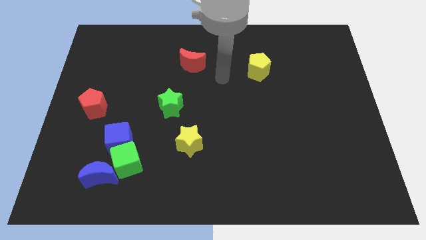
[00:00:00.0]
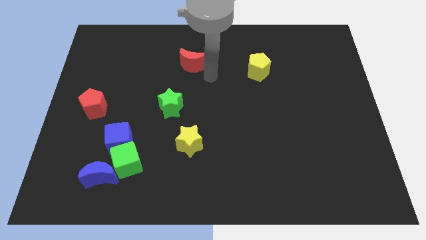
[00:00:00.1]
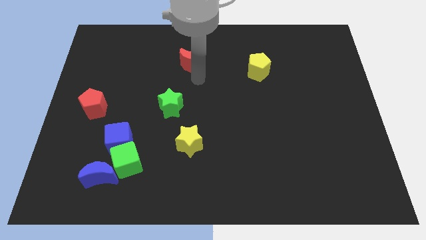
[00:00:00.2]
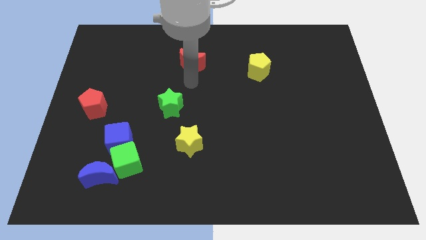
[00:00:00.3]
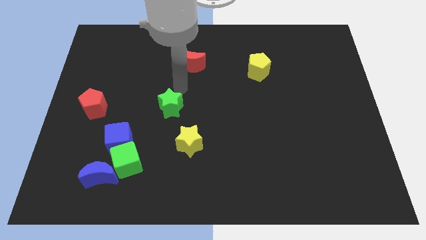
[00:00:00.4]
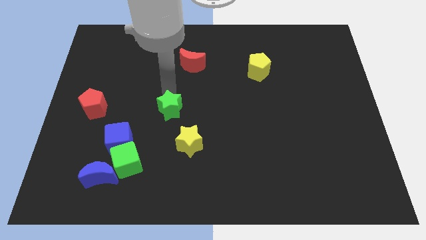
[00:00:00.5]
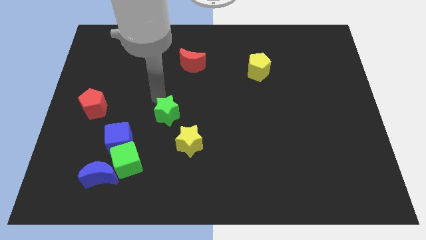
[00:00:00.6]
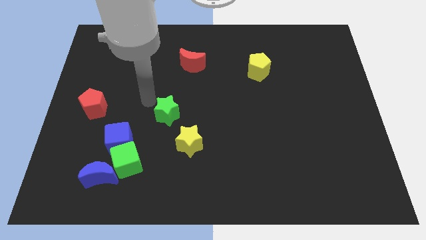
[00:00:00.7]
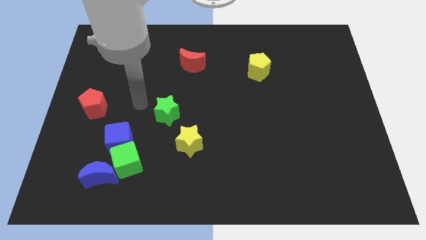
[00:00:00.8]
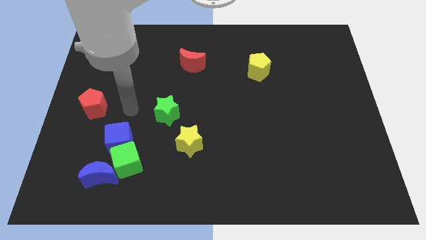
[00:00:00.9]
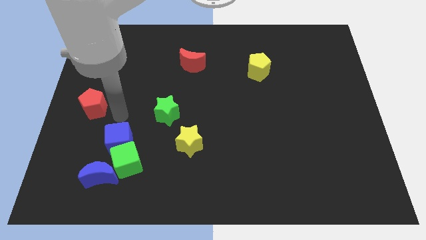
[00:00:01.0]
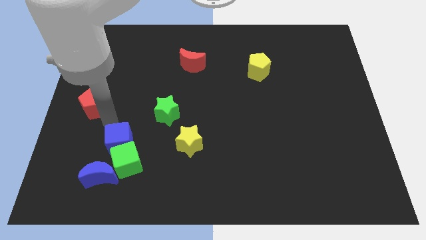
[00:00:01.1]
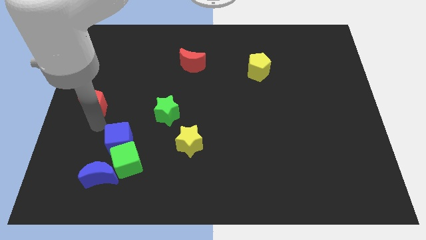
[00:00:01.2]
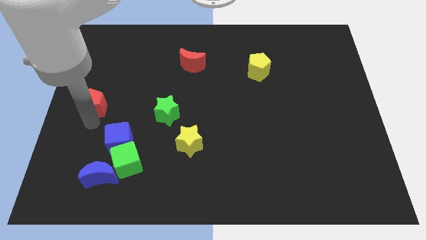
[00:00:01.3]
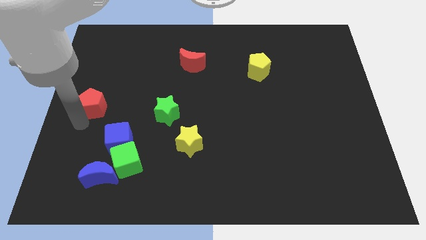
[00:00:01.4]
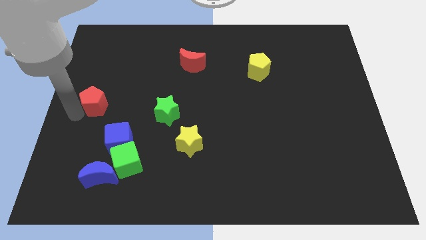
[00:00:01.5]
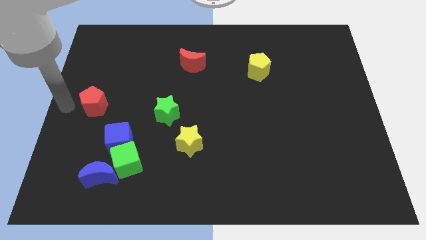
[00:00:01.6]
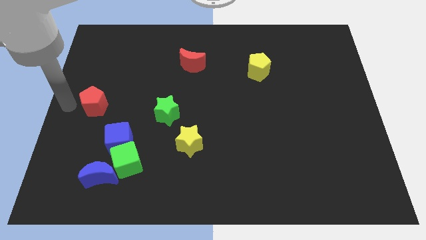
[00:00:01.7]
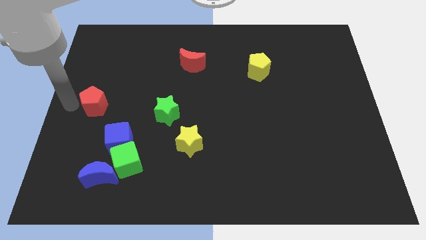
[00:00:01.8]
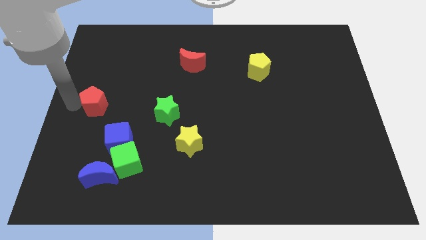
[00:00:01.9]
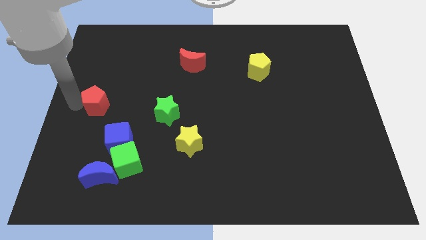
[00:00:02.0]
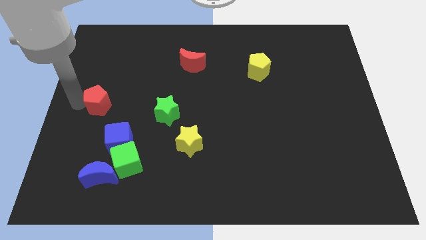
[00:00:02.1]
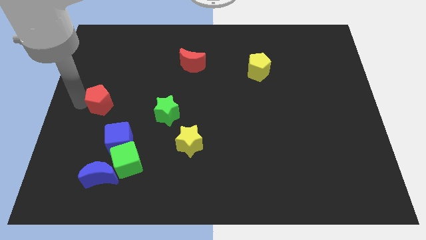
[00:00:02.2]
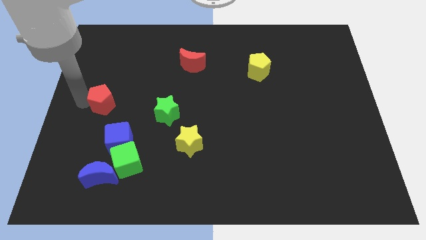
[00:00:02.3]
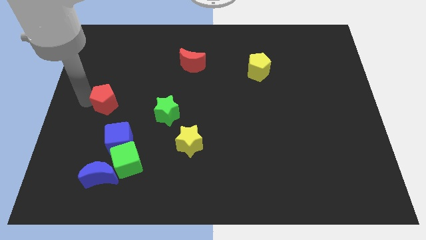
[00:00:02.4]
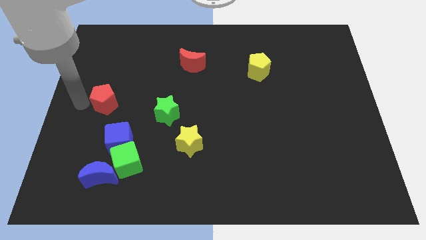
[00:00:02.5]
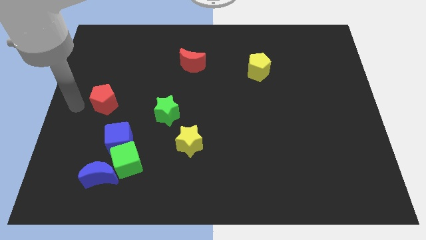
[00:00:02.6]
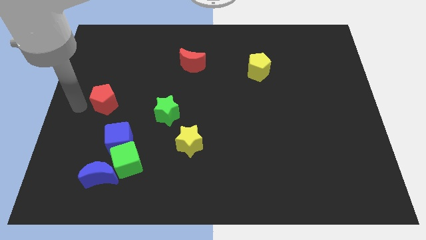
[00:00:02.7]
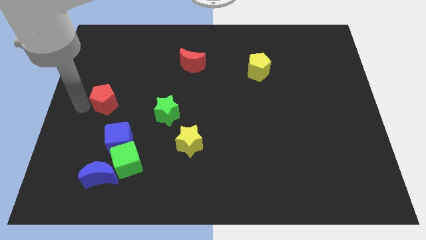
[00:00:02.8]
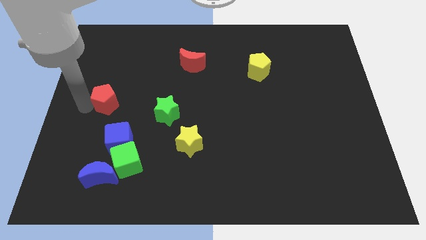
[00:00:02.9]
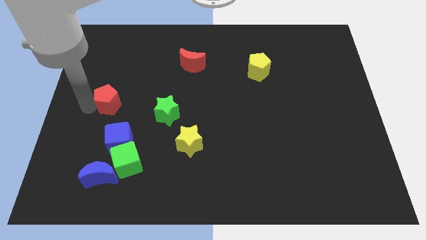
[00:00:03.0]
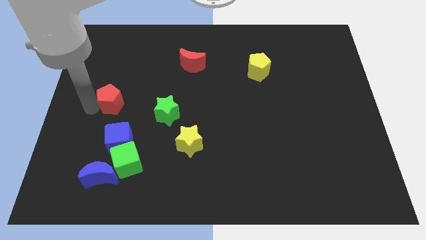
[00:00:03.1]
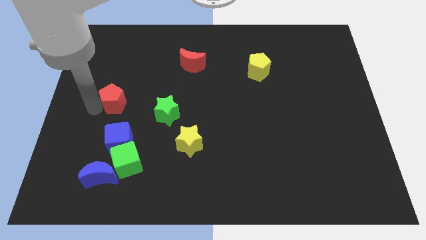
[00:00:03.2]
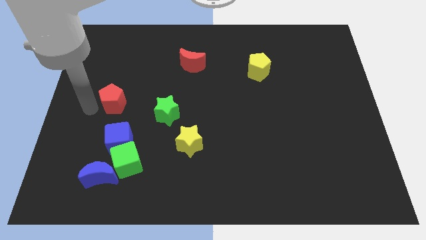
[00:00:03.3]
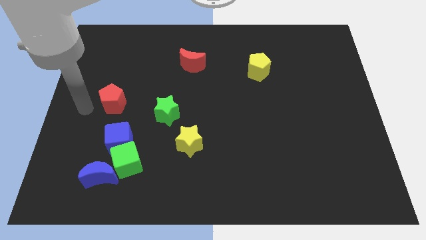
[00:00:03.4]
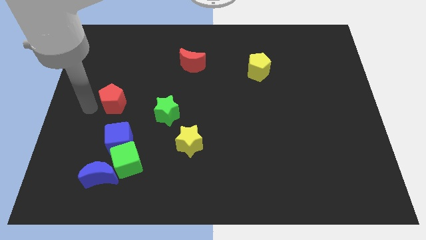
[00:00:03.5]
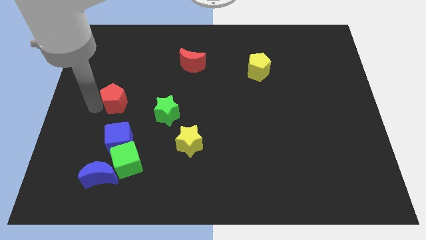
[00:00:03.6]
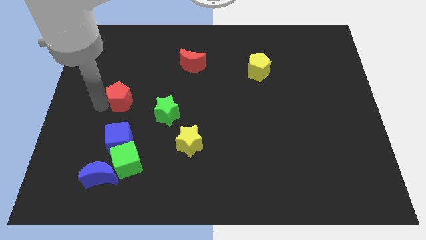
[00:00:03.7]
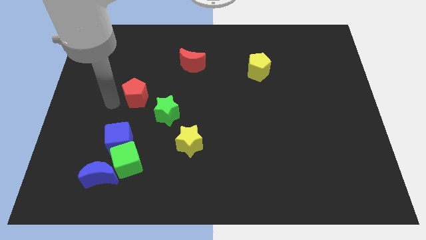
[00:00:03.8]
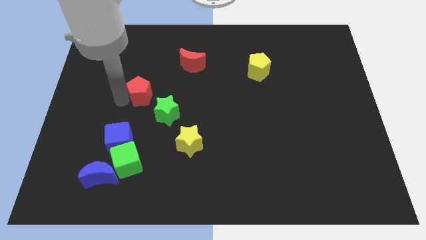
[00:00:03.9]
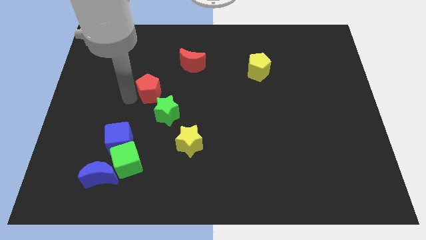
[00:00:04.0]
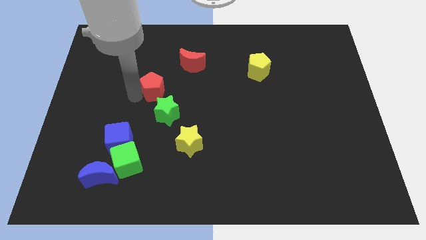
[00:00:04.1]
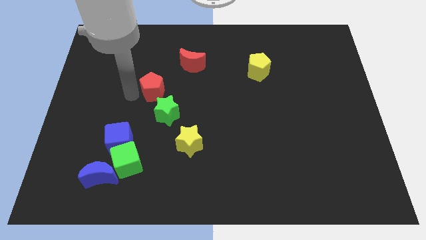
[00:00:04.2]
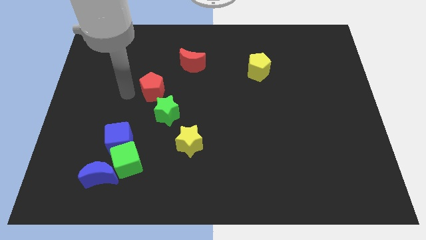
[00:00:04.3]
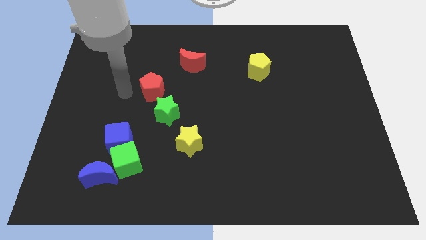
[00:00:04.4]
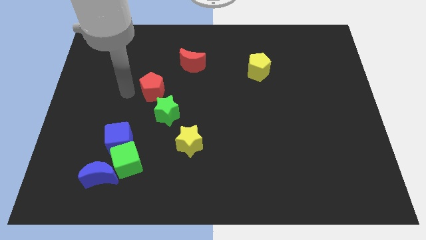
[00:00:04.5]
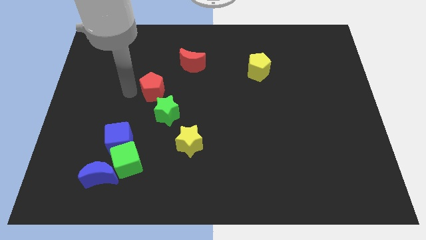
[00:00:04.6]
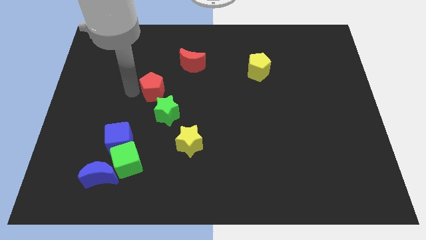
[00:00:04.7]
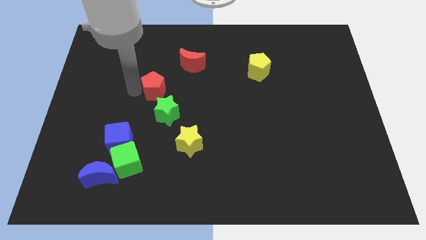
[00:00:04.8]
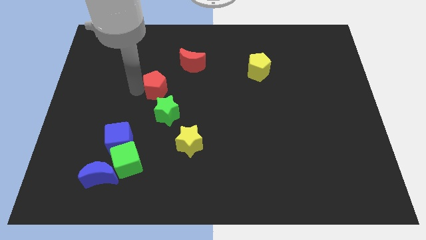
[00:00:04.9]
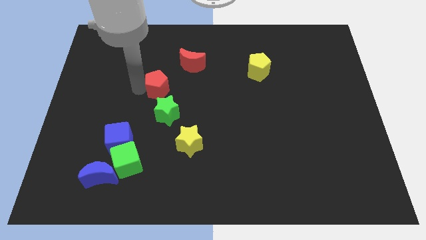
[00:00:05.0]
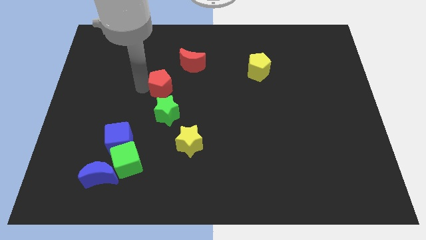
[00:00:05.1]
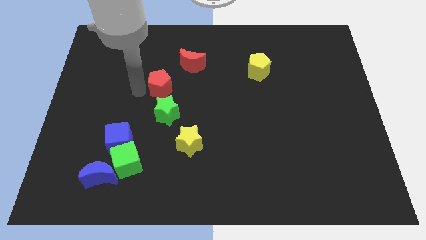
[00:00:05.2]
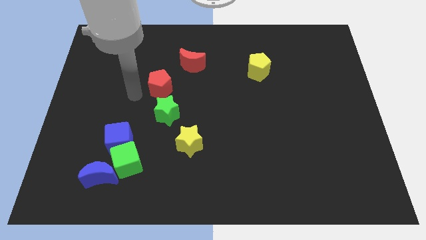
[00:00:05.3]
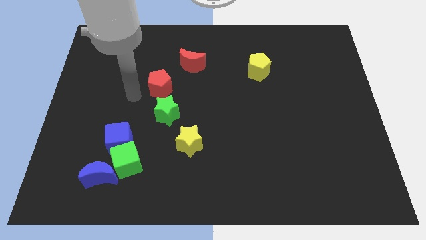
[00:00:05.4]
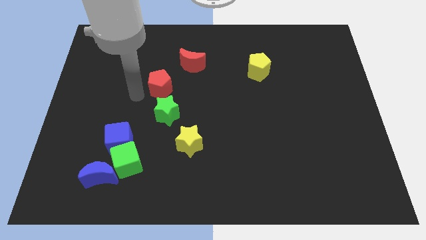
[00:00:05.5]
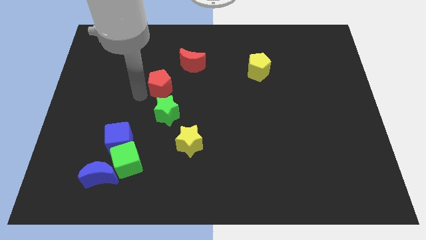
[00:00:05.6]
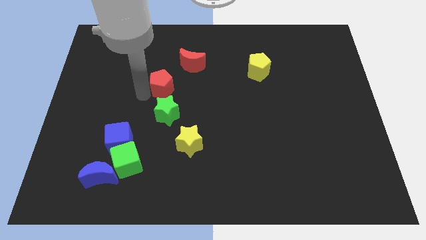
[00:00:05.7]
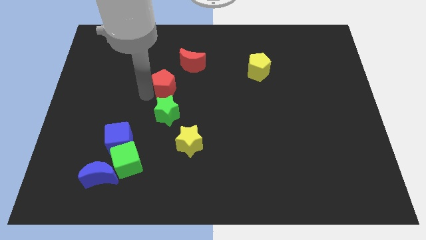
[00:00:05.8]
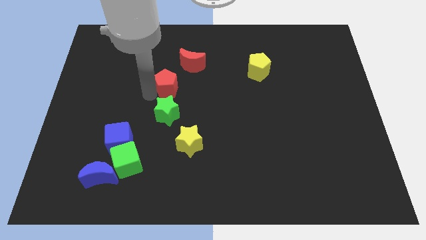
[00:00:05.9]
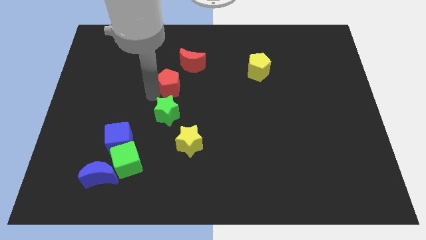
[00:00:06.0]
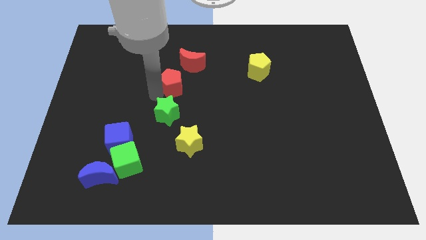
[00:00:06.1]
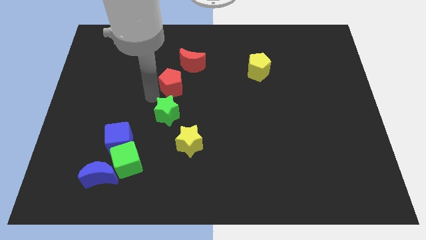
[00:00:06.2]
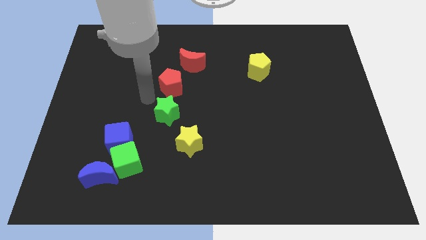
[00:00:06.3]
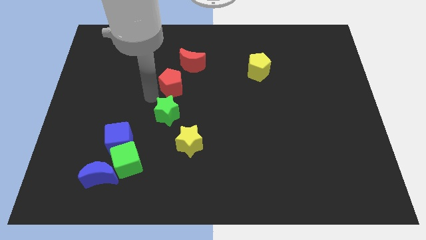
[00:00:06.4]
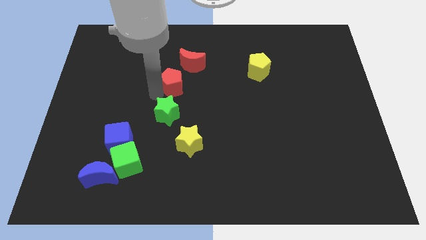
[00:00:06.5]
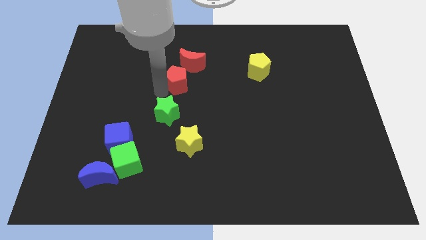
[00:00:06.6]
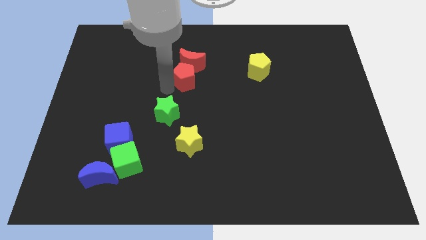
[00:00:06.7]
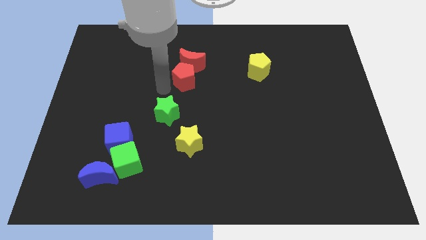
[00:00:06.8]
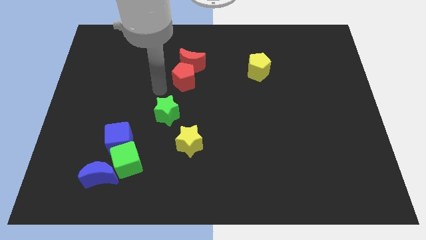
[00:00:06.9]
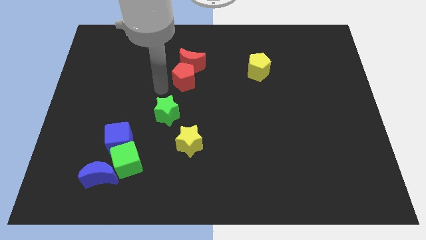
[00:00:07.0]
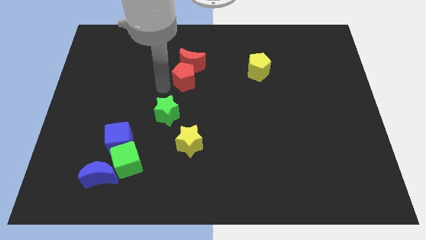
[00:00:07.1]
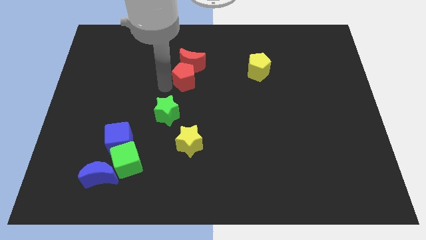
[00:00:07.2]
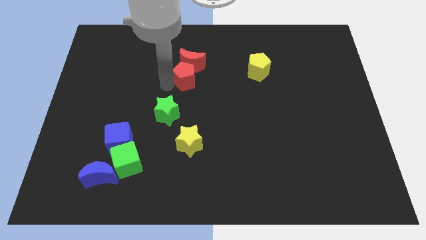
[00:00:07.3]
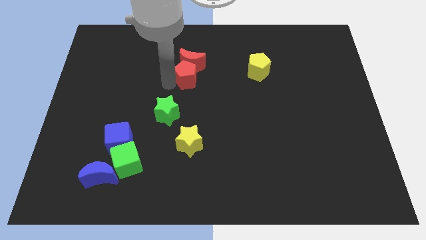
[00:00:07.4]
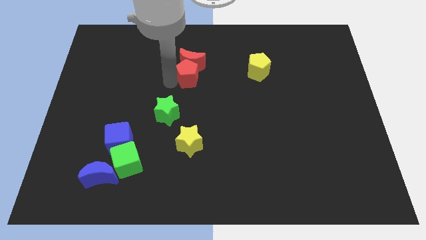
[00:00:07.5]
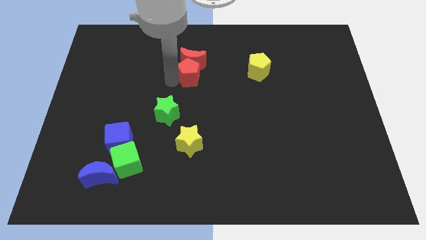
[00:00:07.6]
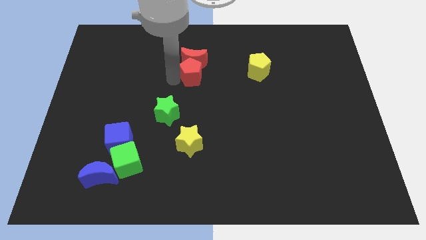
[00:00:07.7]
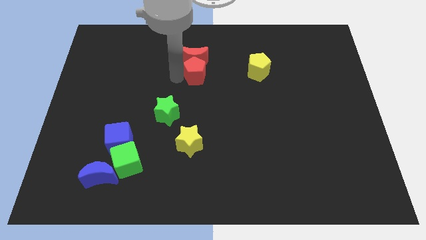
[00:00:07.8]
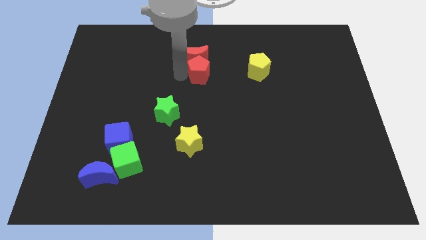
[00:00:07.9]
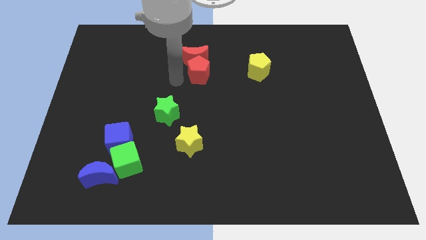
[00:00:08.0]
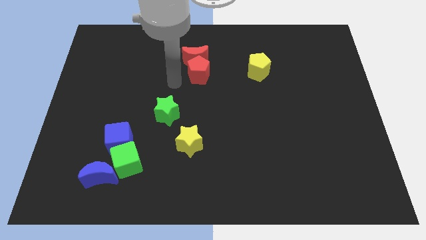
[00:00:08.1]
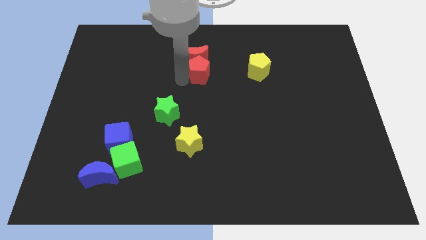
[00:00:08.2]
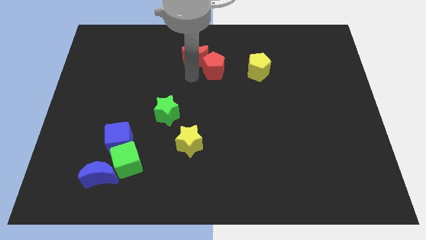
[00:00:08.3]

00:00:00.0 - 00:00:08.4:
move the red pentagon right of the red moon
